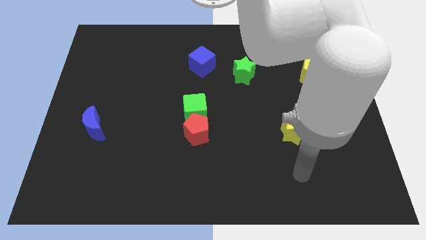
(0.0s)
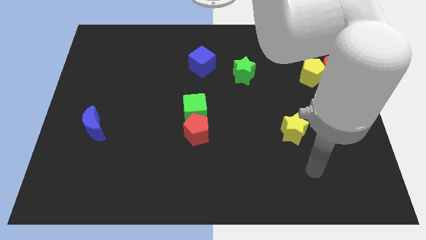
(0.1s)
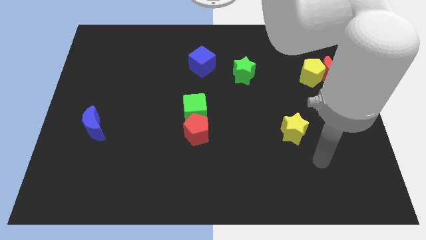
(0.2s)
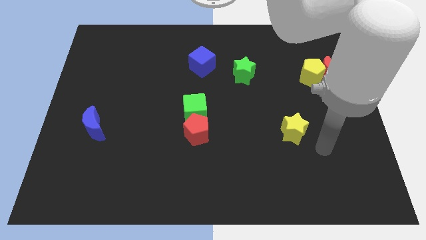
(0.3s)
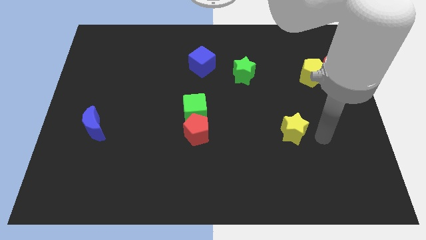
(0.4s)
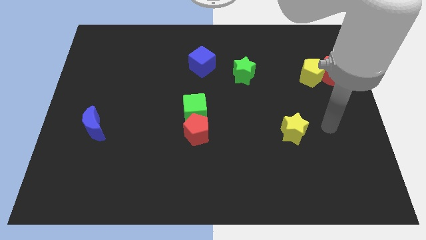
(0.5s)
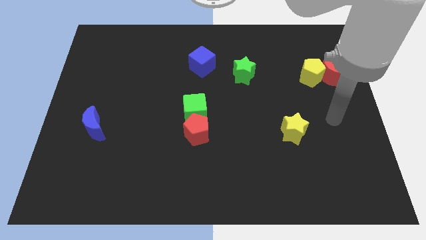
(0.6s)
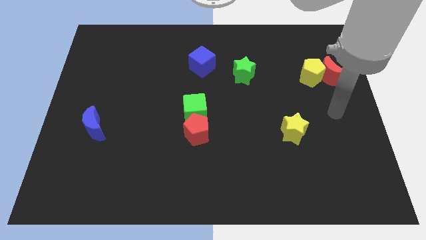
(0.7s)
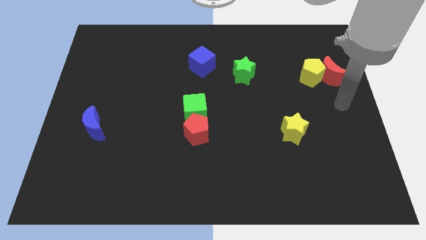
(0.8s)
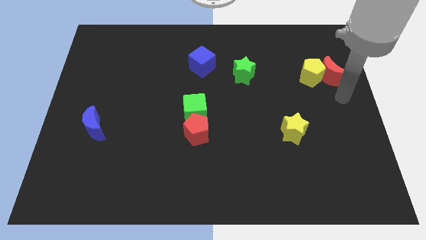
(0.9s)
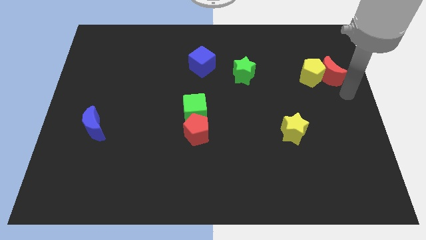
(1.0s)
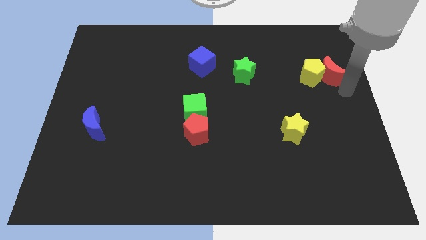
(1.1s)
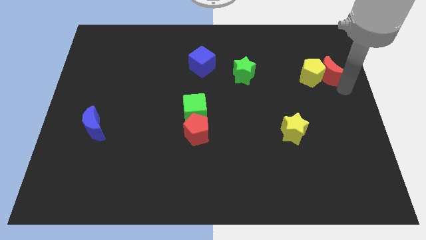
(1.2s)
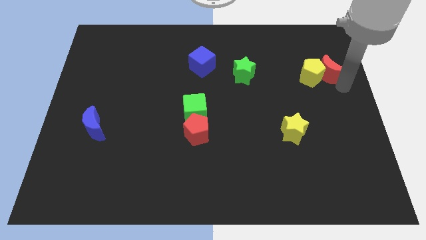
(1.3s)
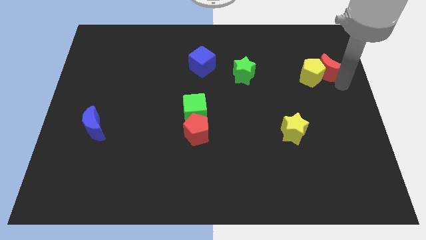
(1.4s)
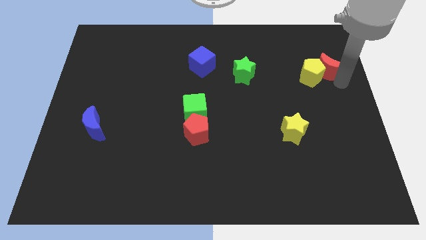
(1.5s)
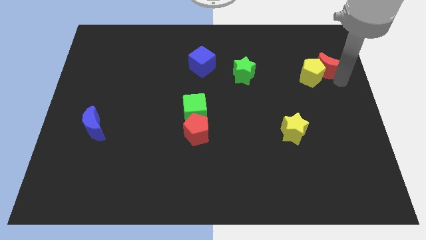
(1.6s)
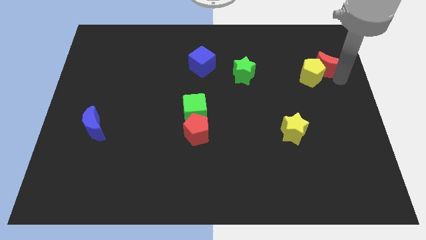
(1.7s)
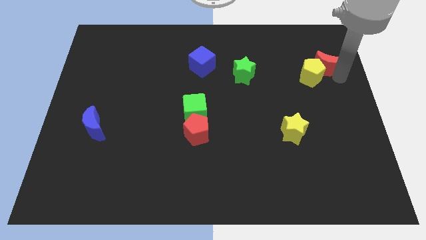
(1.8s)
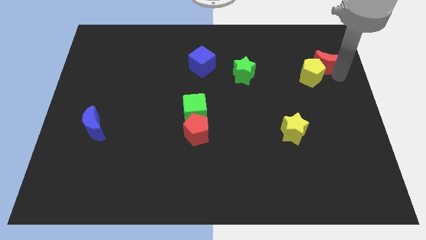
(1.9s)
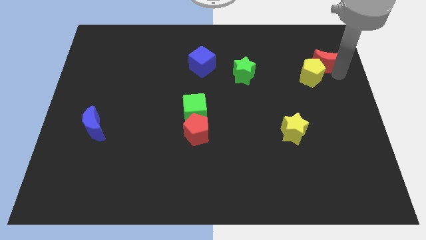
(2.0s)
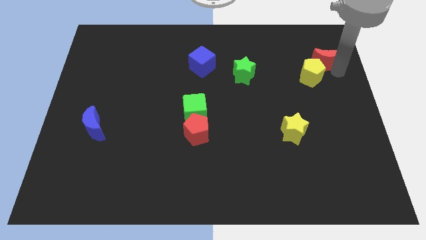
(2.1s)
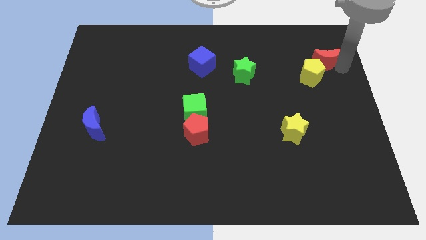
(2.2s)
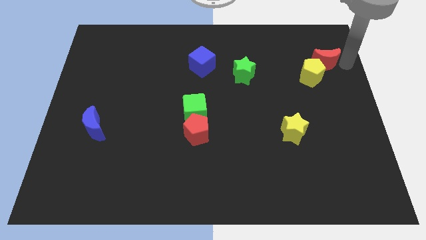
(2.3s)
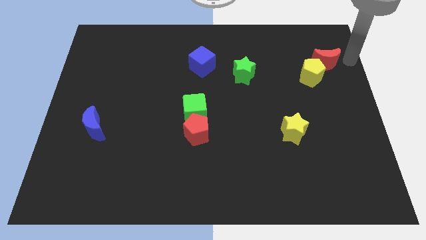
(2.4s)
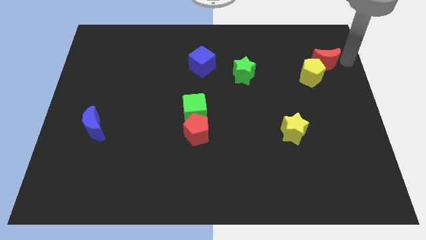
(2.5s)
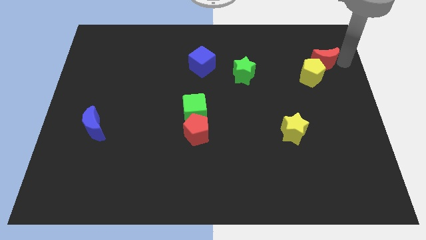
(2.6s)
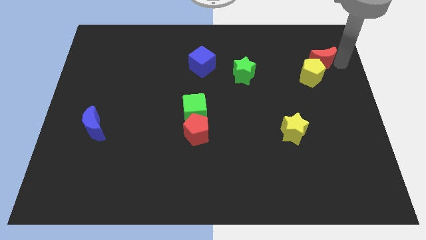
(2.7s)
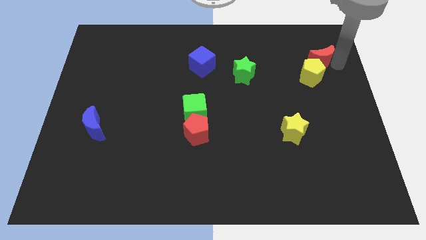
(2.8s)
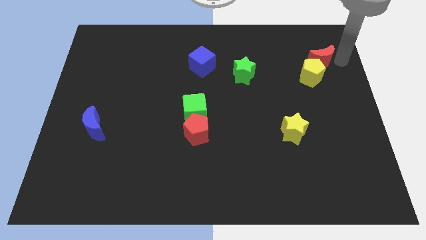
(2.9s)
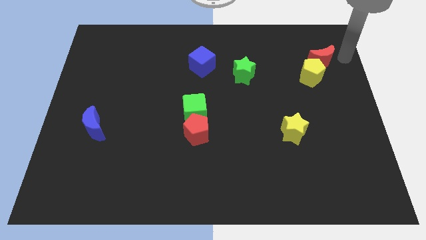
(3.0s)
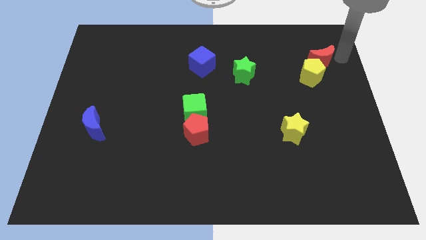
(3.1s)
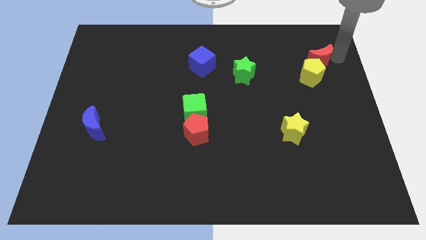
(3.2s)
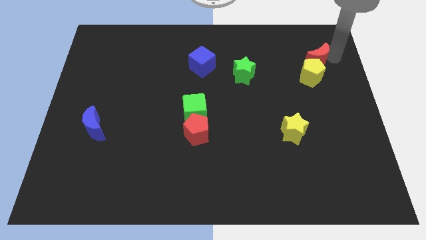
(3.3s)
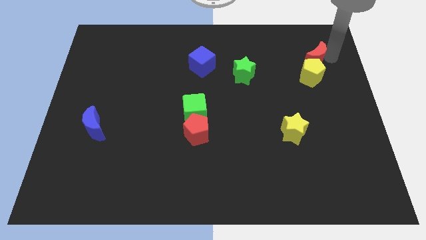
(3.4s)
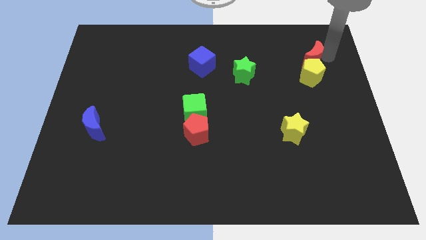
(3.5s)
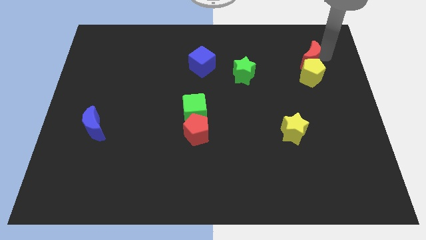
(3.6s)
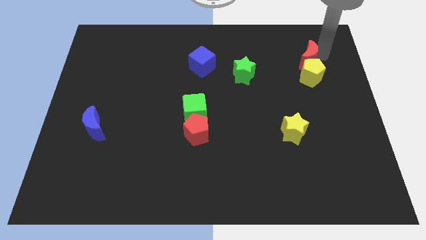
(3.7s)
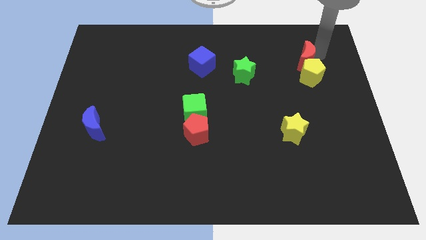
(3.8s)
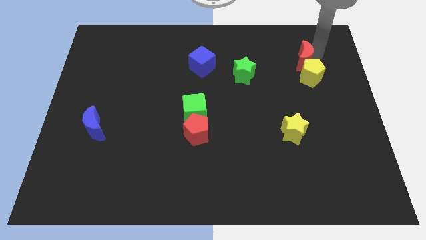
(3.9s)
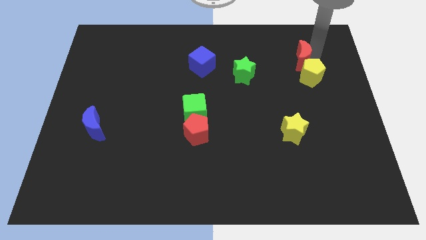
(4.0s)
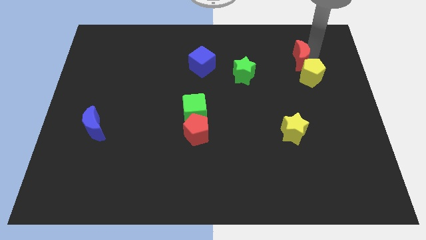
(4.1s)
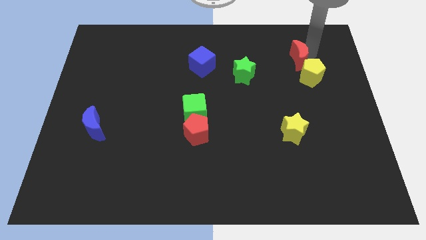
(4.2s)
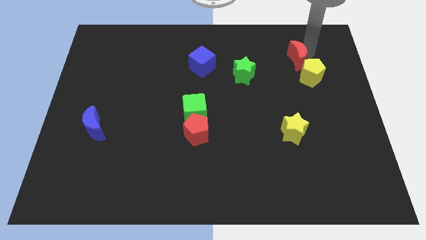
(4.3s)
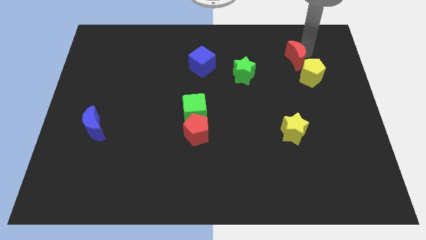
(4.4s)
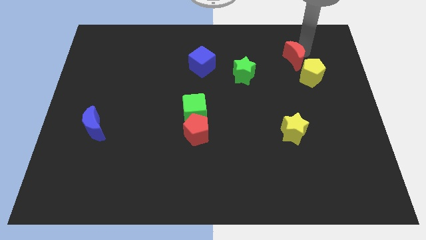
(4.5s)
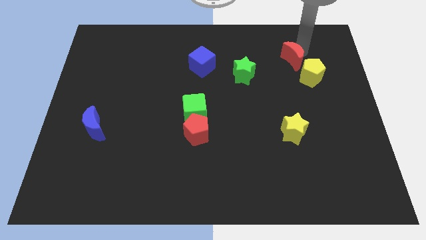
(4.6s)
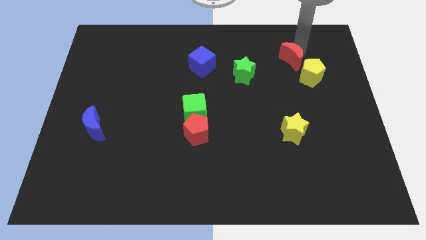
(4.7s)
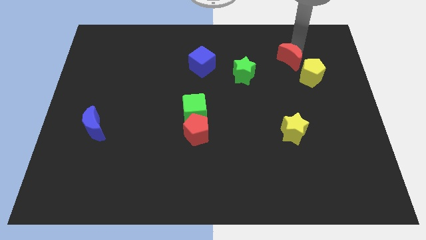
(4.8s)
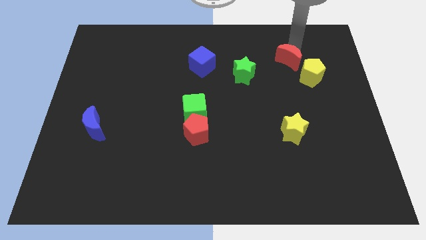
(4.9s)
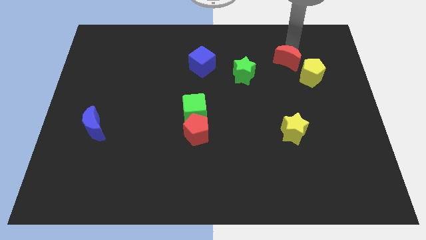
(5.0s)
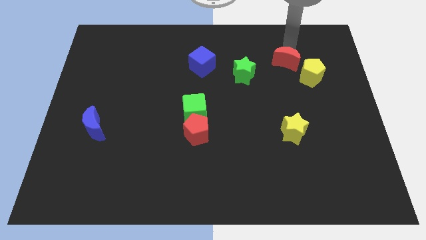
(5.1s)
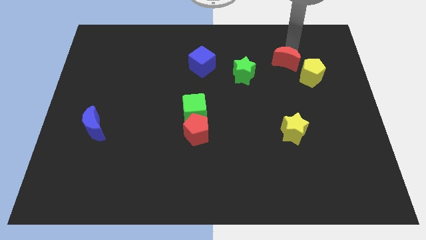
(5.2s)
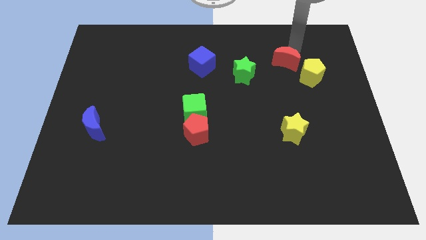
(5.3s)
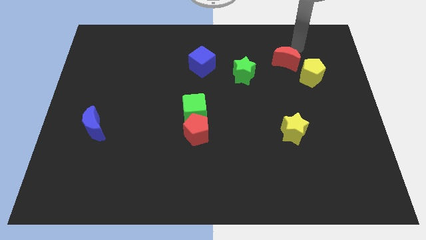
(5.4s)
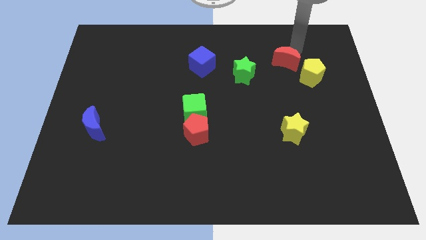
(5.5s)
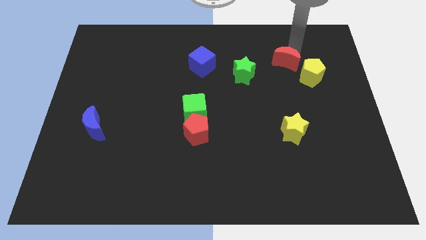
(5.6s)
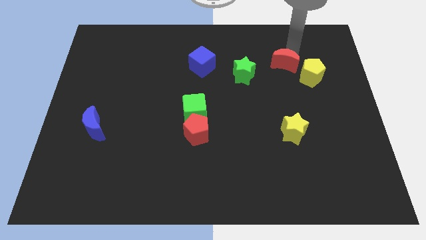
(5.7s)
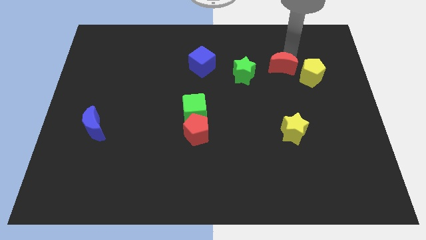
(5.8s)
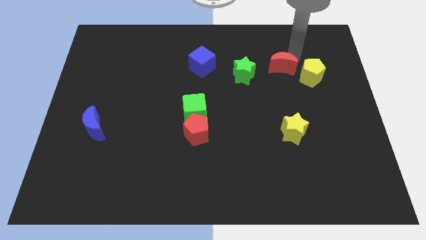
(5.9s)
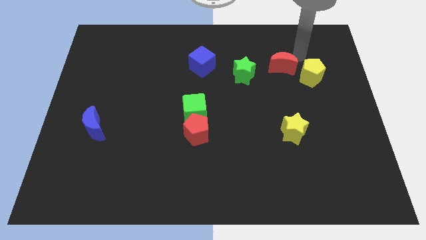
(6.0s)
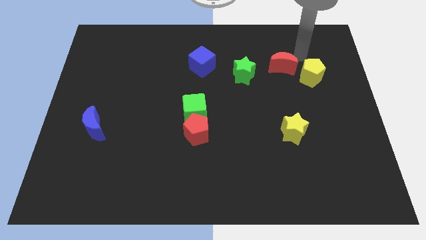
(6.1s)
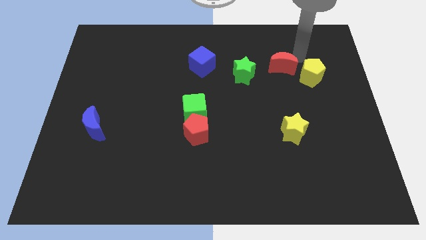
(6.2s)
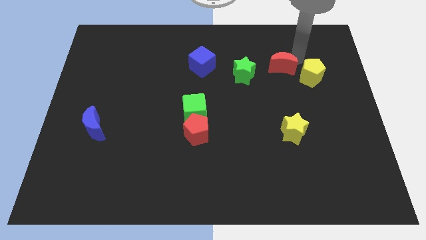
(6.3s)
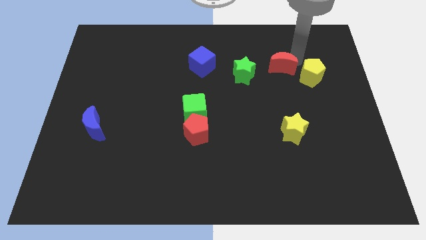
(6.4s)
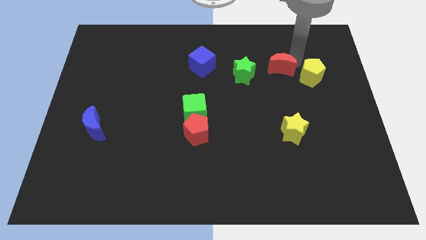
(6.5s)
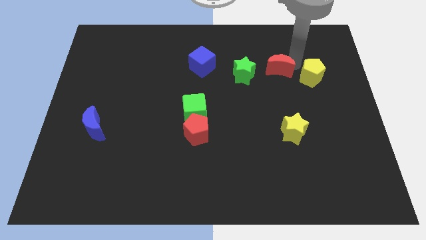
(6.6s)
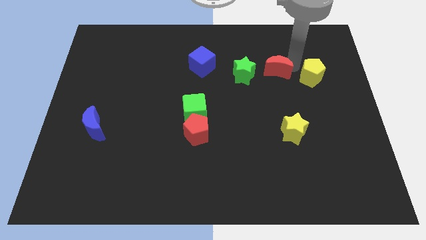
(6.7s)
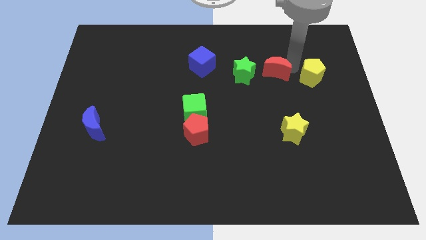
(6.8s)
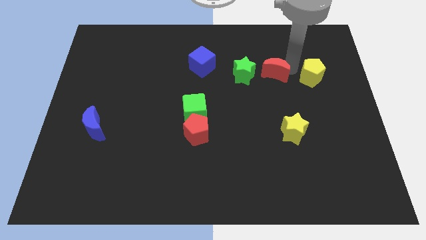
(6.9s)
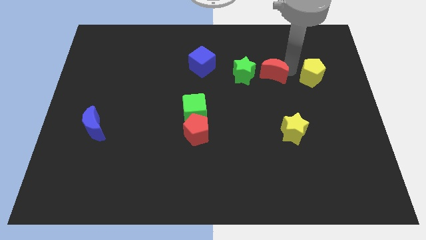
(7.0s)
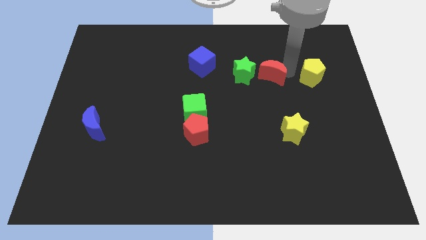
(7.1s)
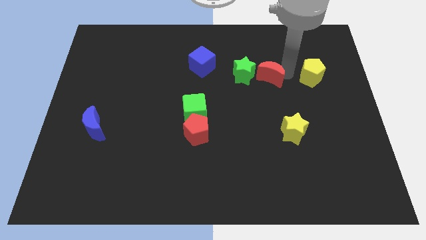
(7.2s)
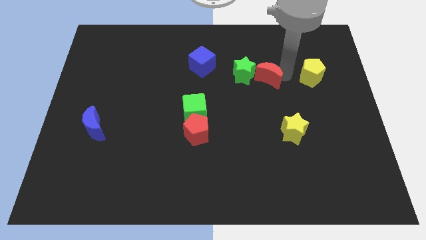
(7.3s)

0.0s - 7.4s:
push the red moon to the green star
